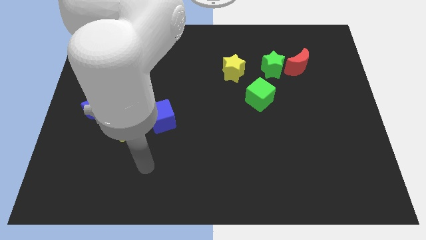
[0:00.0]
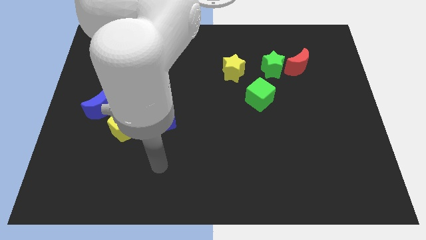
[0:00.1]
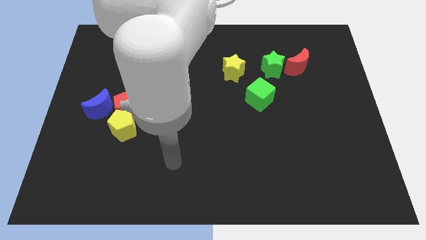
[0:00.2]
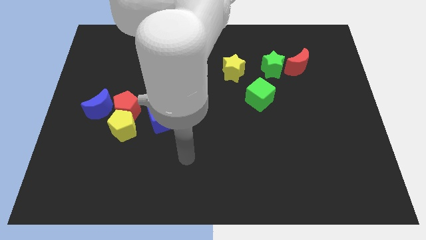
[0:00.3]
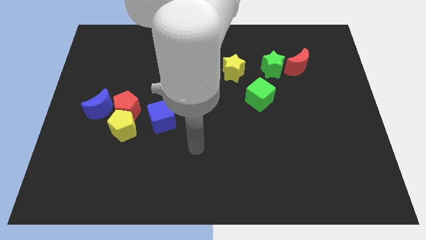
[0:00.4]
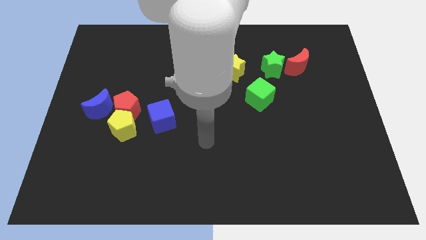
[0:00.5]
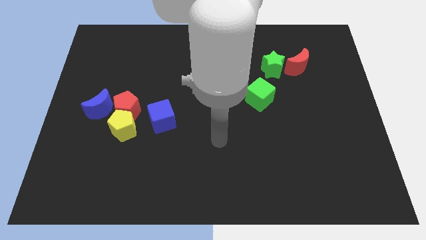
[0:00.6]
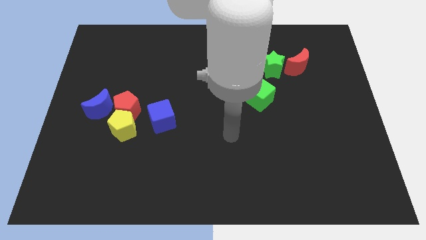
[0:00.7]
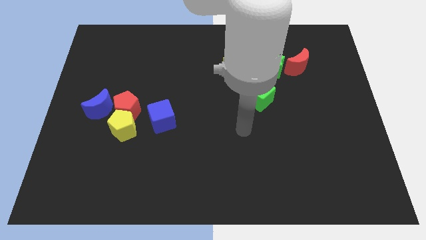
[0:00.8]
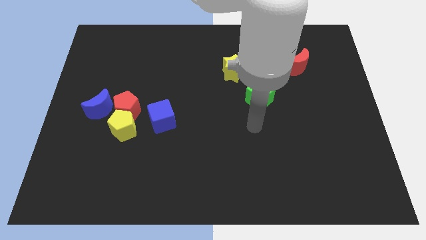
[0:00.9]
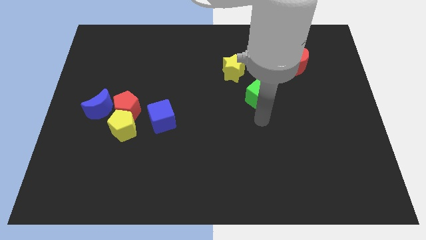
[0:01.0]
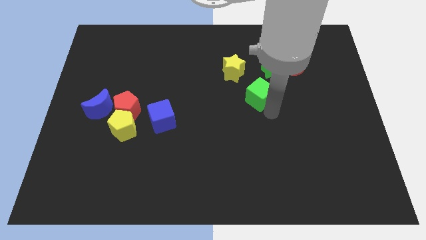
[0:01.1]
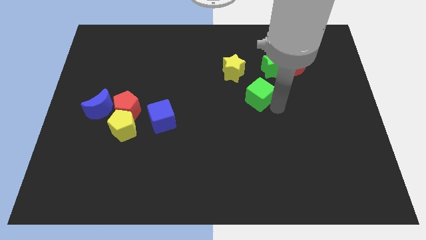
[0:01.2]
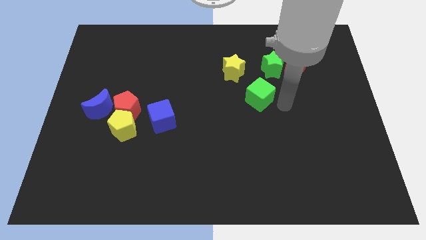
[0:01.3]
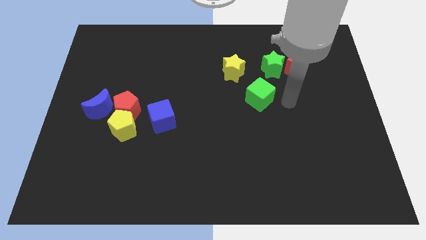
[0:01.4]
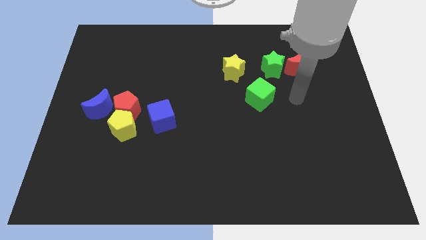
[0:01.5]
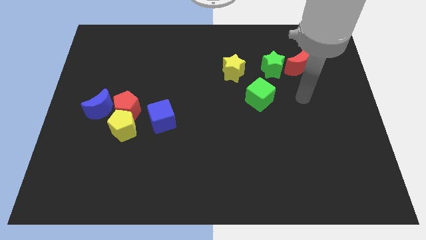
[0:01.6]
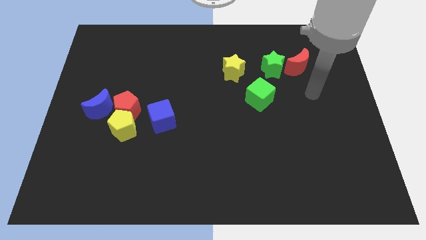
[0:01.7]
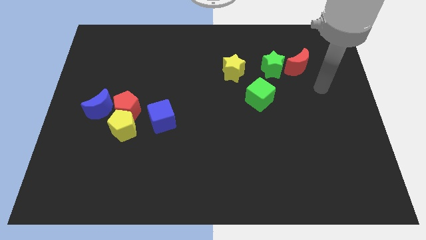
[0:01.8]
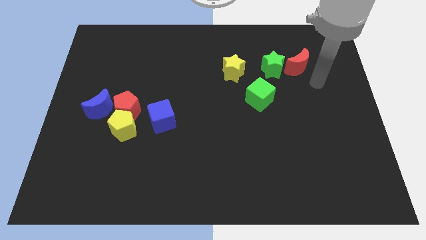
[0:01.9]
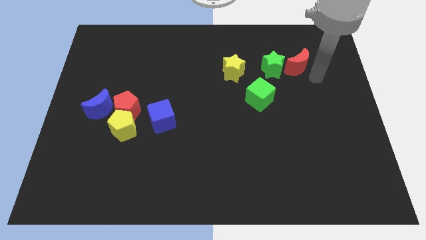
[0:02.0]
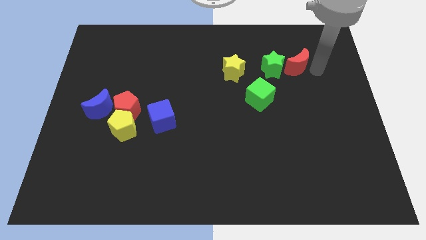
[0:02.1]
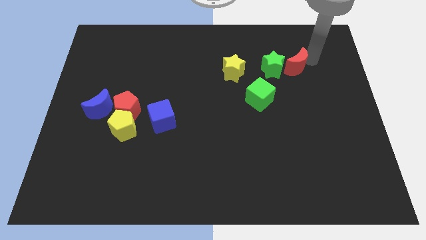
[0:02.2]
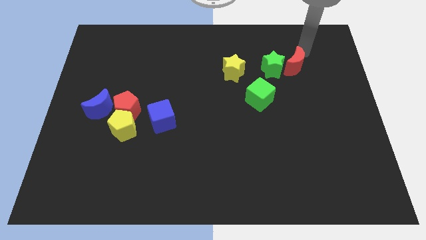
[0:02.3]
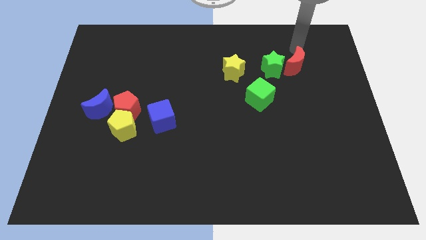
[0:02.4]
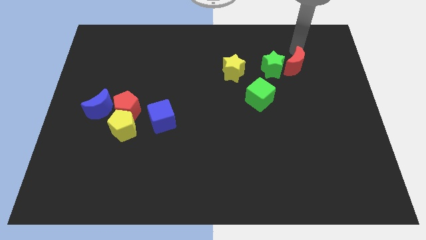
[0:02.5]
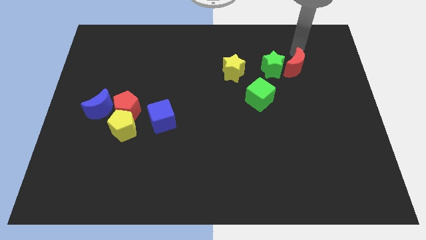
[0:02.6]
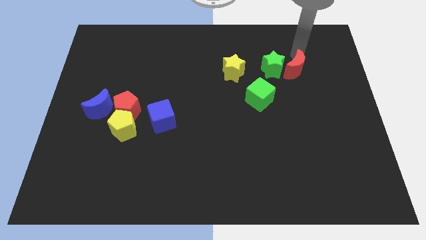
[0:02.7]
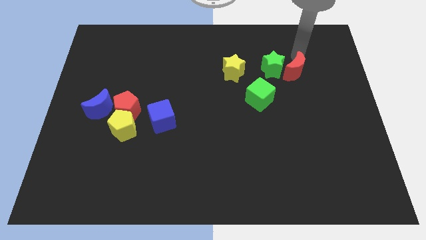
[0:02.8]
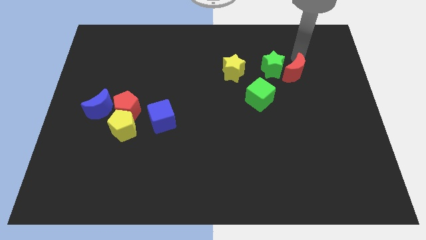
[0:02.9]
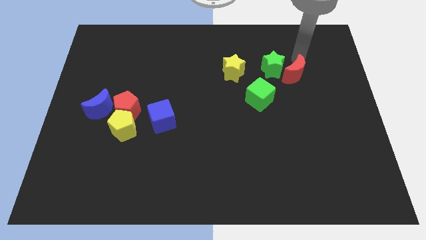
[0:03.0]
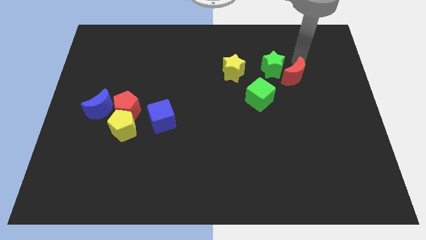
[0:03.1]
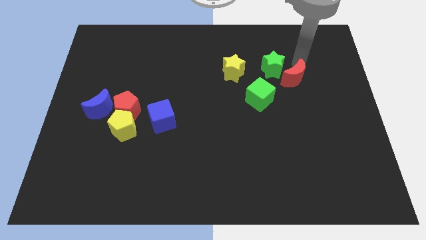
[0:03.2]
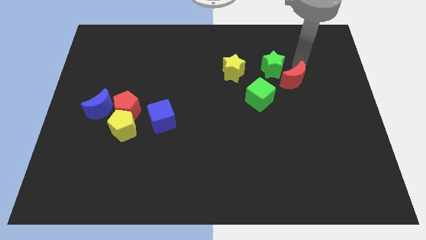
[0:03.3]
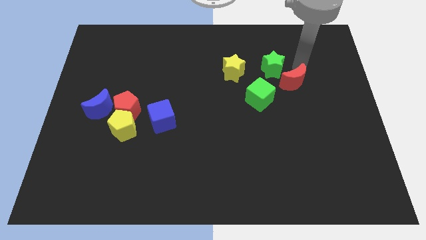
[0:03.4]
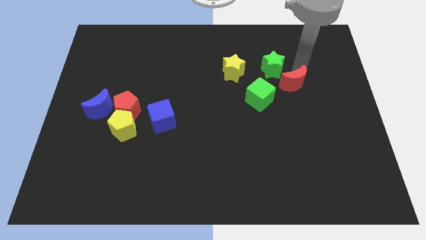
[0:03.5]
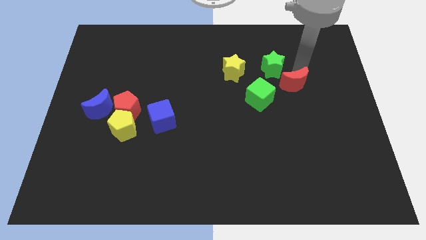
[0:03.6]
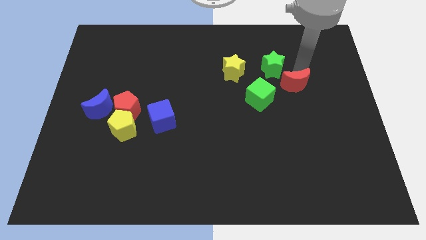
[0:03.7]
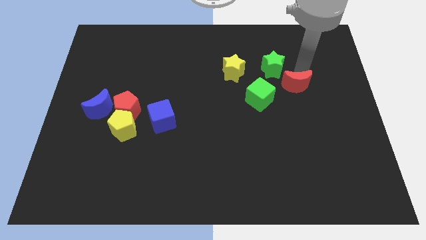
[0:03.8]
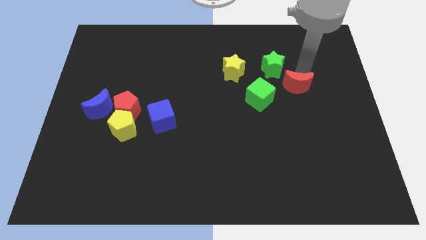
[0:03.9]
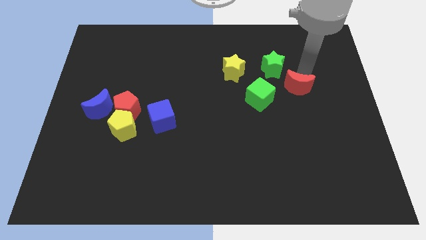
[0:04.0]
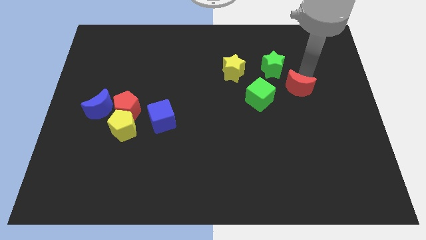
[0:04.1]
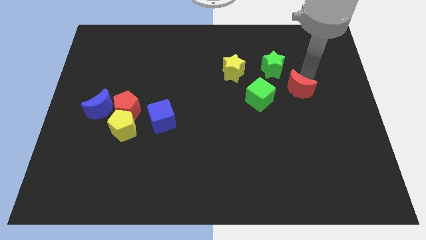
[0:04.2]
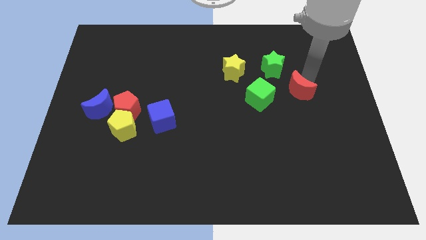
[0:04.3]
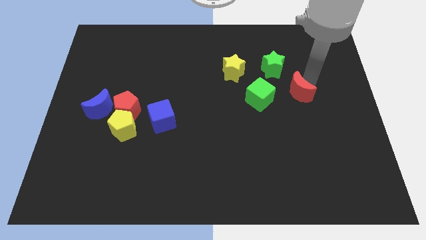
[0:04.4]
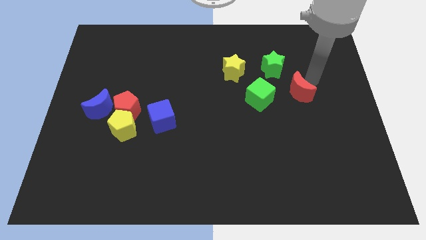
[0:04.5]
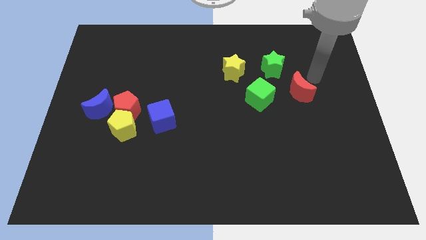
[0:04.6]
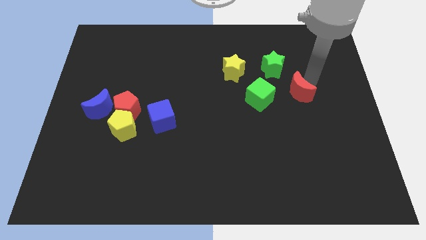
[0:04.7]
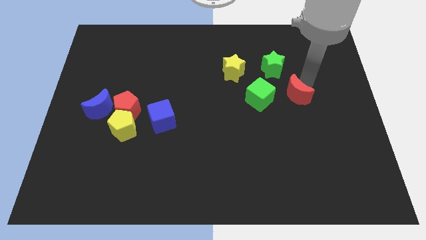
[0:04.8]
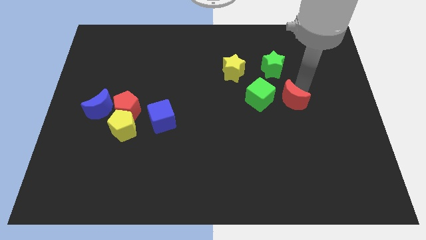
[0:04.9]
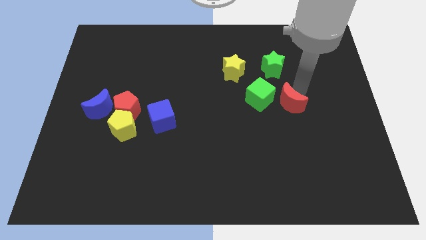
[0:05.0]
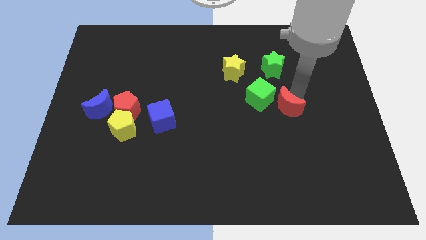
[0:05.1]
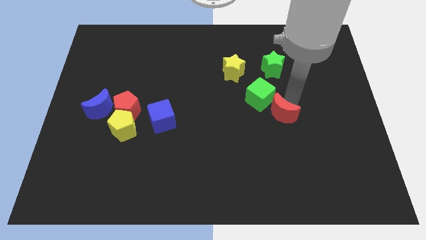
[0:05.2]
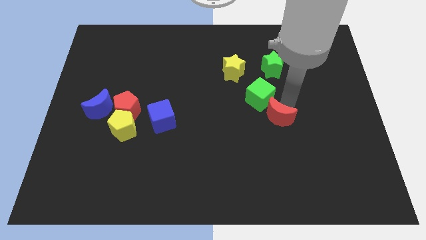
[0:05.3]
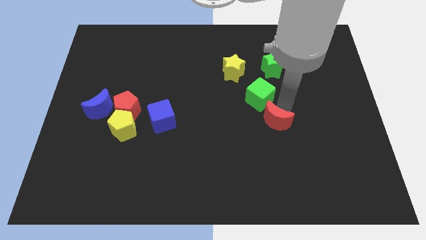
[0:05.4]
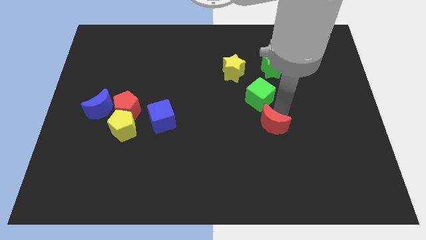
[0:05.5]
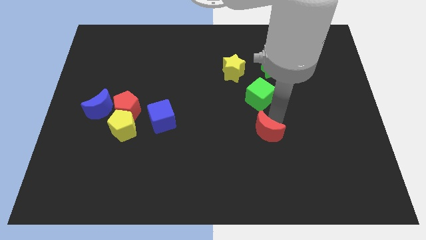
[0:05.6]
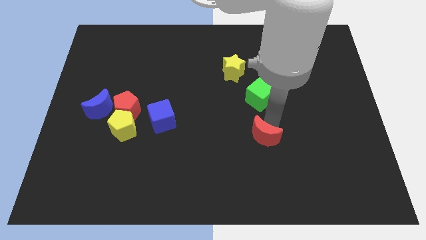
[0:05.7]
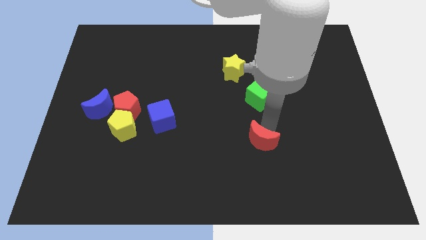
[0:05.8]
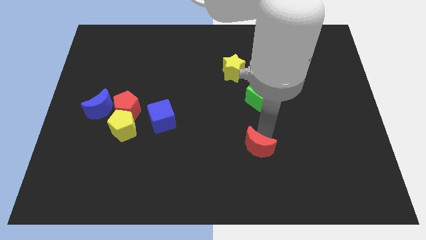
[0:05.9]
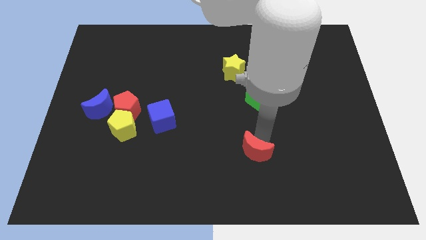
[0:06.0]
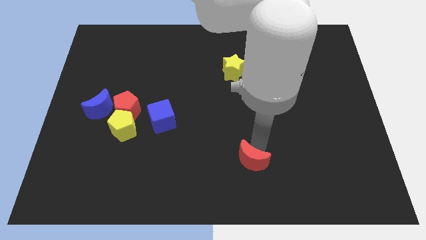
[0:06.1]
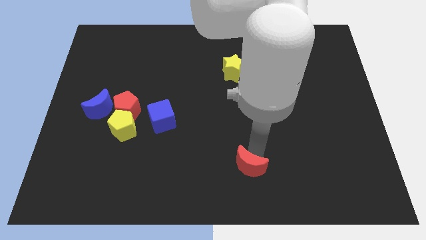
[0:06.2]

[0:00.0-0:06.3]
put the red moon to the bottom
